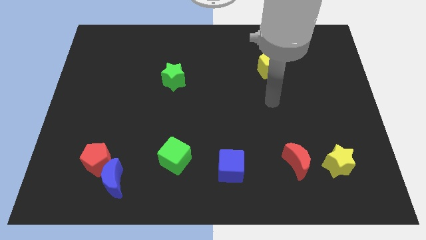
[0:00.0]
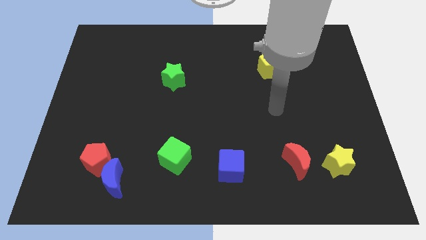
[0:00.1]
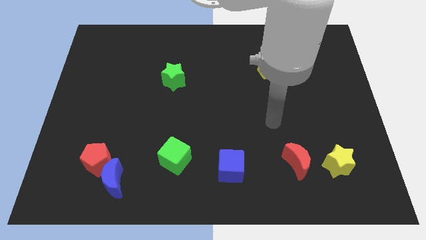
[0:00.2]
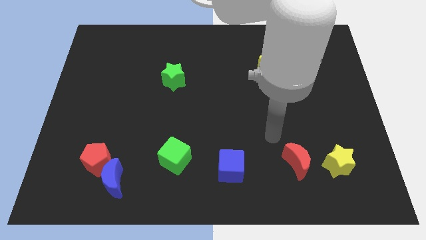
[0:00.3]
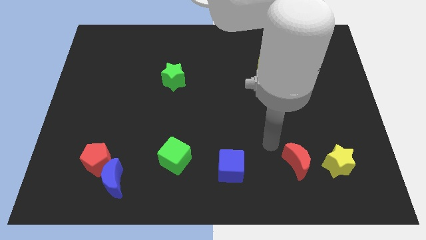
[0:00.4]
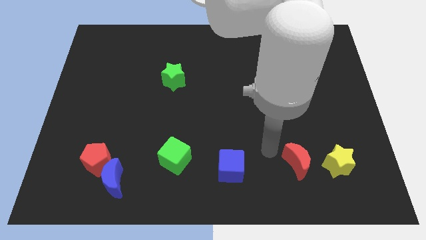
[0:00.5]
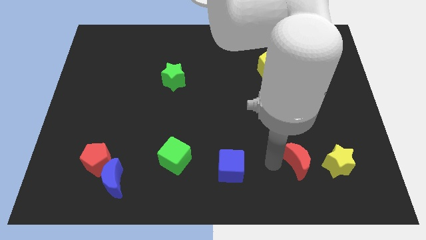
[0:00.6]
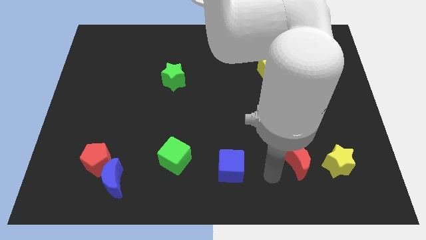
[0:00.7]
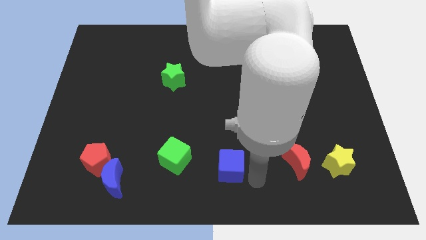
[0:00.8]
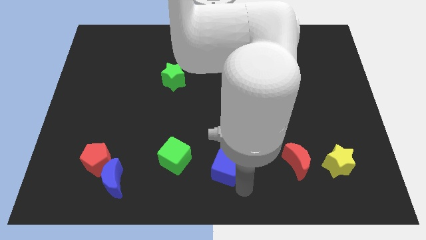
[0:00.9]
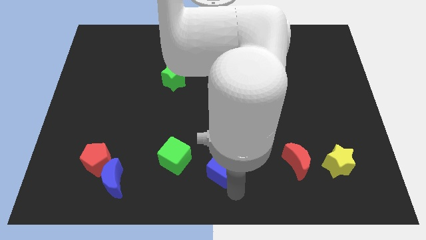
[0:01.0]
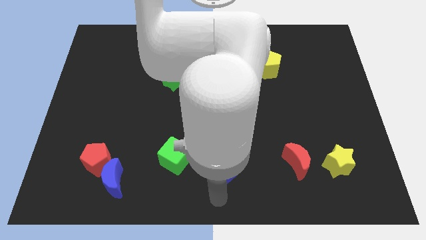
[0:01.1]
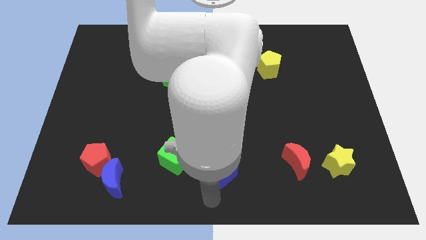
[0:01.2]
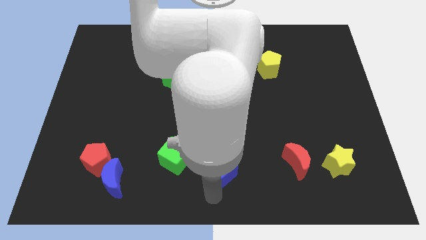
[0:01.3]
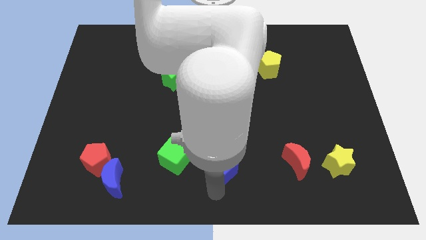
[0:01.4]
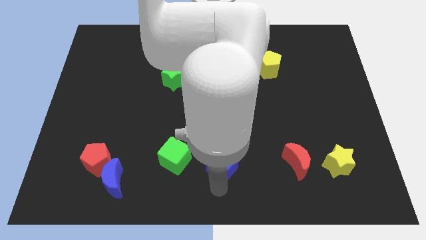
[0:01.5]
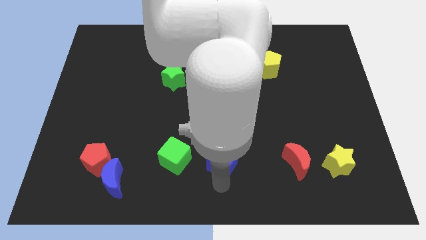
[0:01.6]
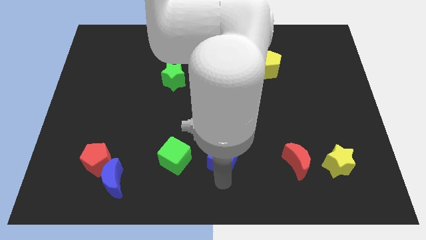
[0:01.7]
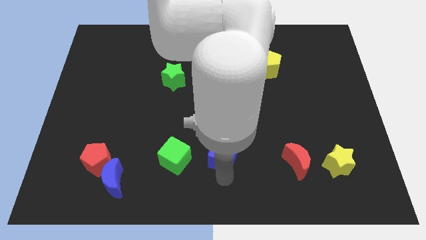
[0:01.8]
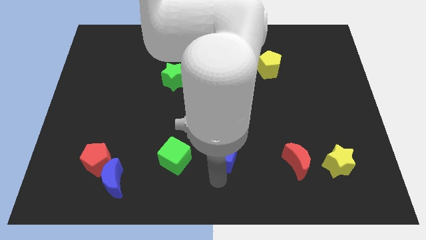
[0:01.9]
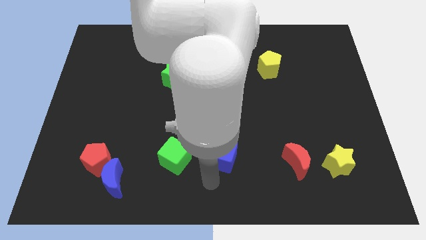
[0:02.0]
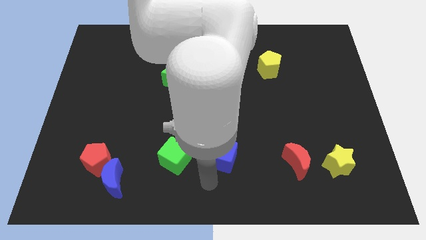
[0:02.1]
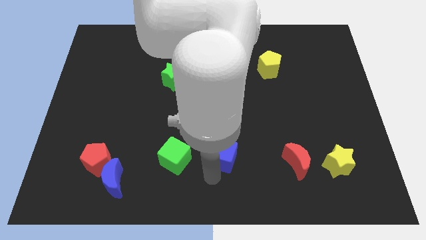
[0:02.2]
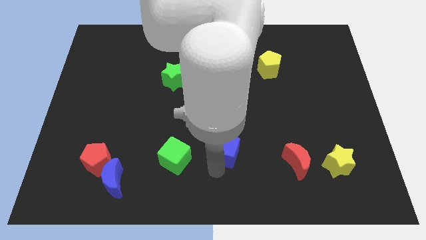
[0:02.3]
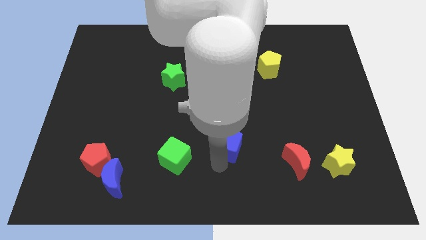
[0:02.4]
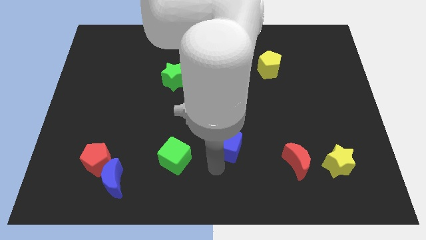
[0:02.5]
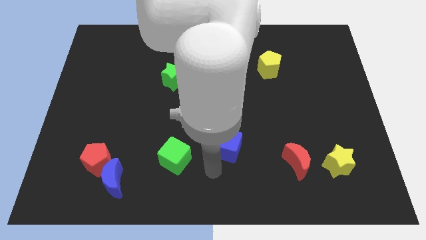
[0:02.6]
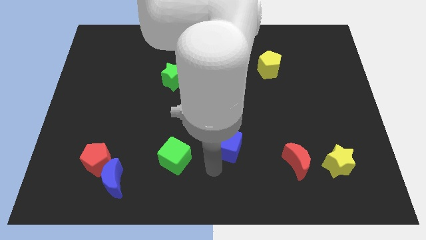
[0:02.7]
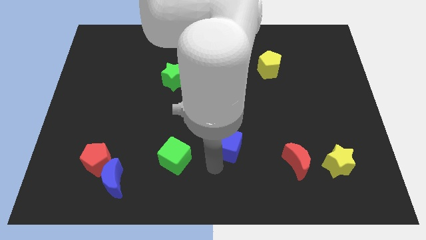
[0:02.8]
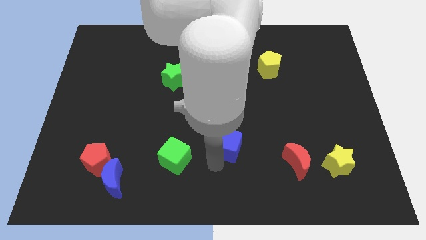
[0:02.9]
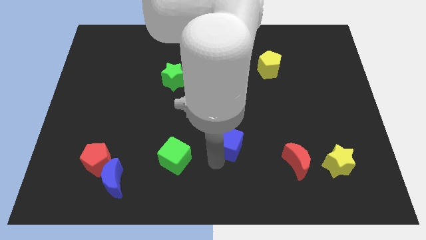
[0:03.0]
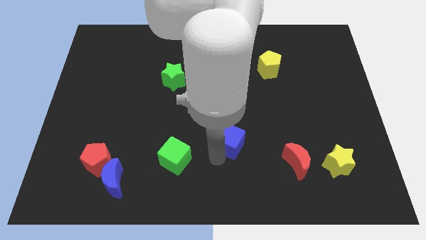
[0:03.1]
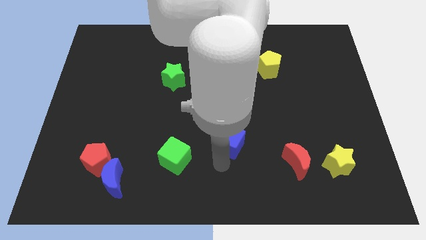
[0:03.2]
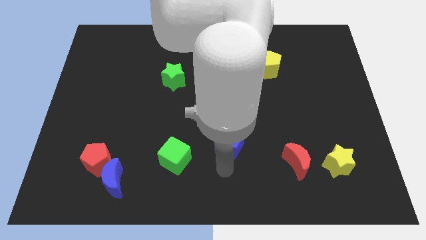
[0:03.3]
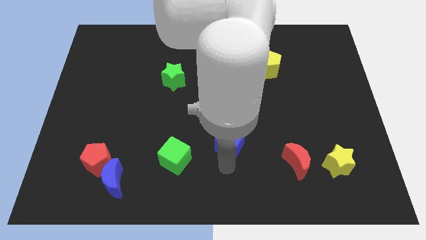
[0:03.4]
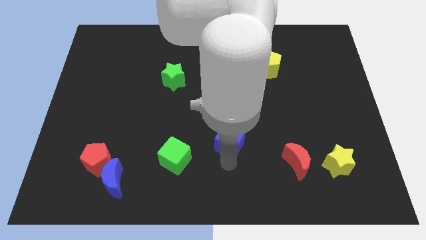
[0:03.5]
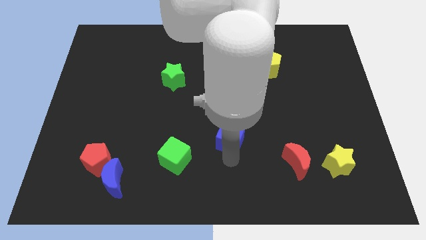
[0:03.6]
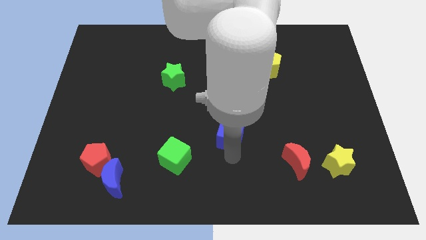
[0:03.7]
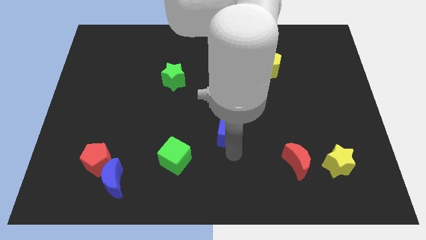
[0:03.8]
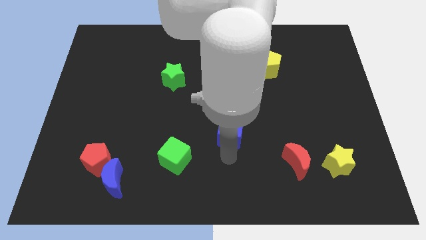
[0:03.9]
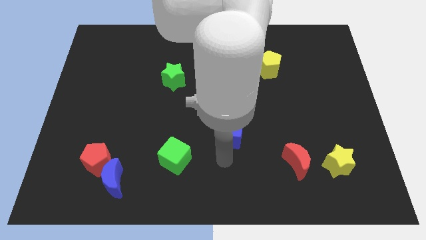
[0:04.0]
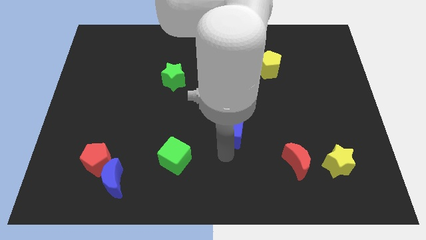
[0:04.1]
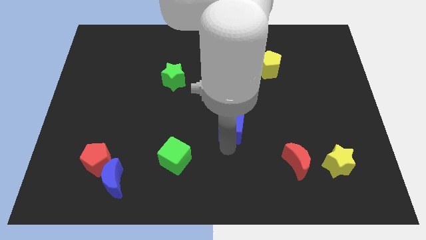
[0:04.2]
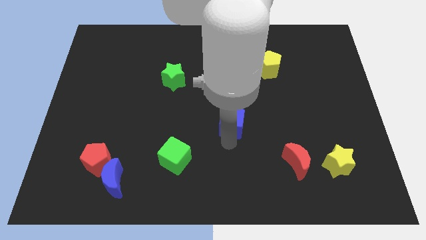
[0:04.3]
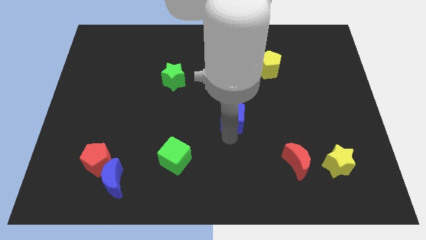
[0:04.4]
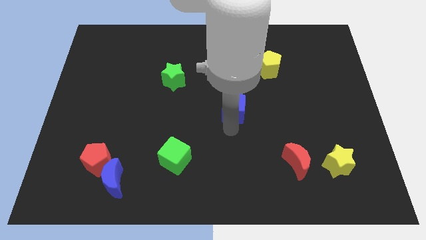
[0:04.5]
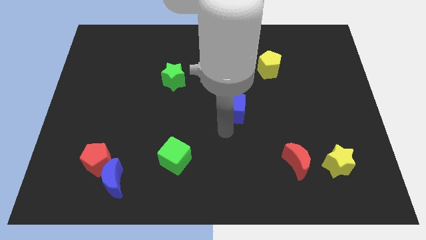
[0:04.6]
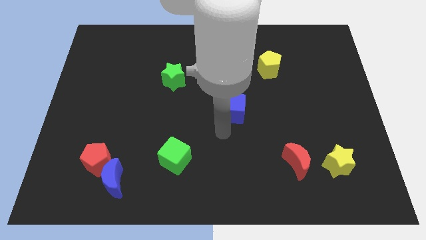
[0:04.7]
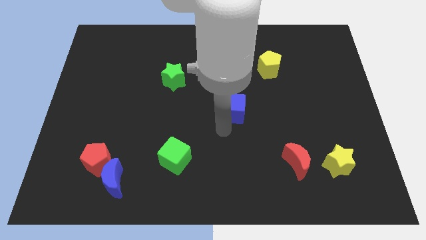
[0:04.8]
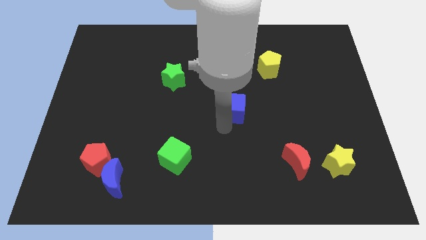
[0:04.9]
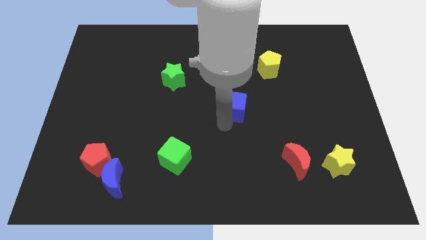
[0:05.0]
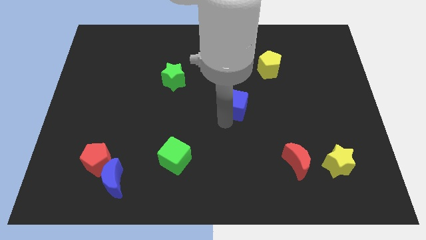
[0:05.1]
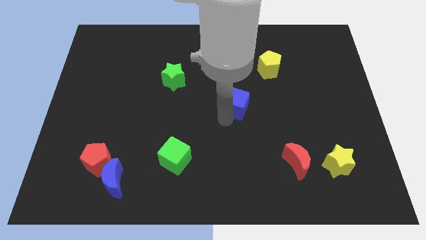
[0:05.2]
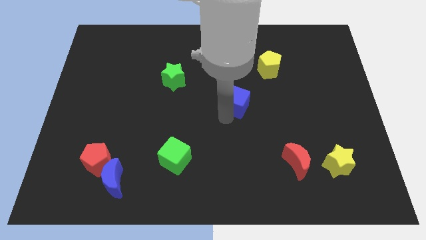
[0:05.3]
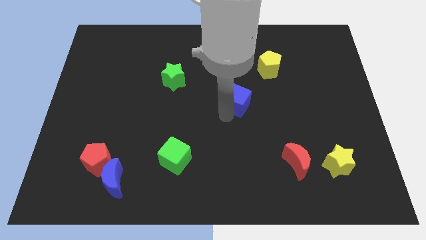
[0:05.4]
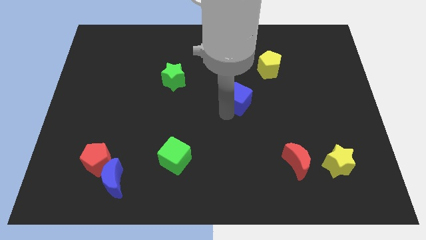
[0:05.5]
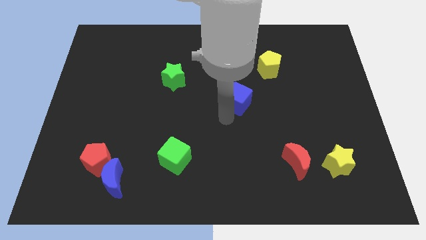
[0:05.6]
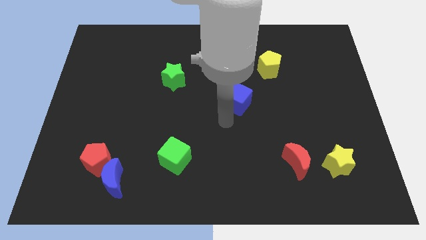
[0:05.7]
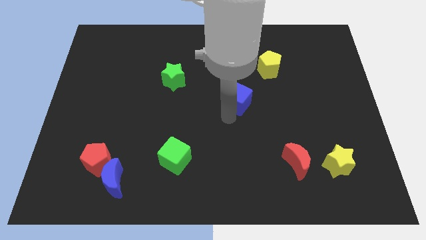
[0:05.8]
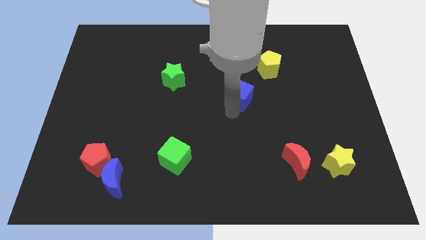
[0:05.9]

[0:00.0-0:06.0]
put the blue cube to the bottom left of the yellow pentagon

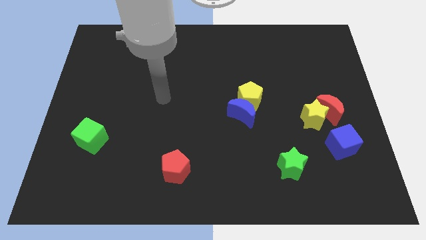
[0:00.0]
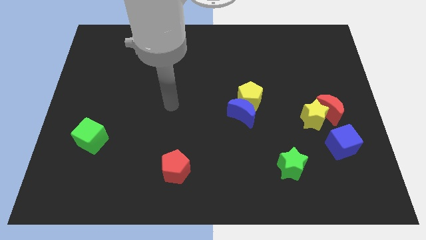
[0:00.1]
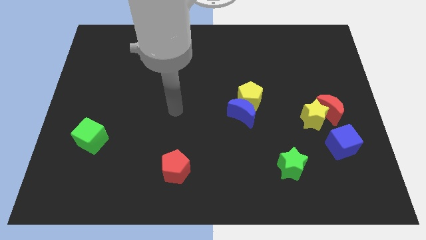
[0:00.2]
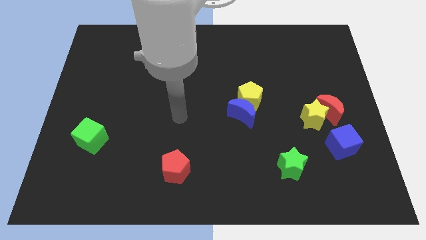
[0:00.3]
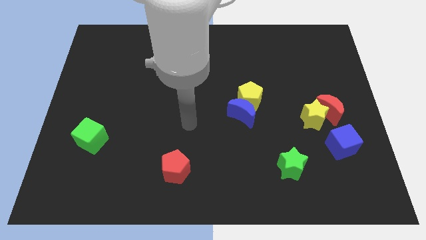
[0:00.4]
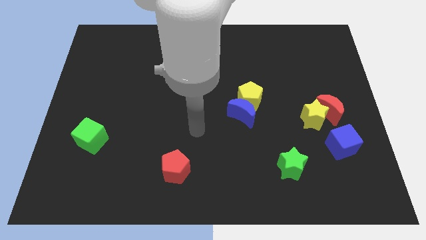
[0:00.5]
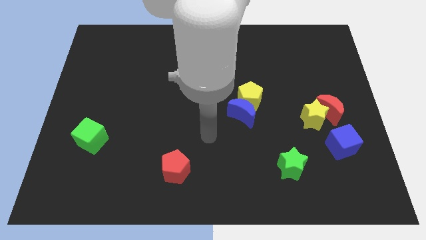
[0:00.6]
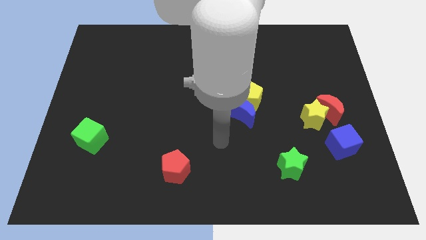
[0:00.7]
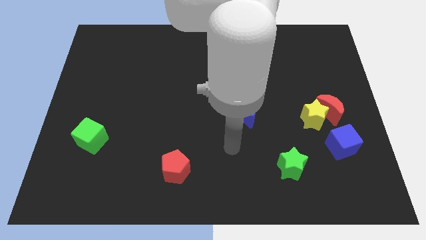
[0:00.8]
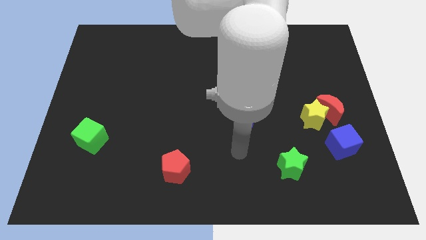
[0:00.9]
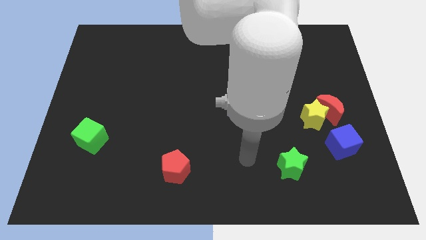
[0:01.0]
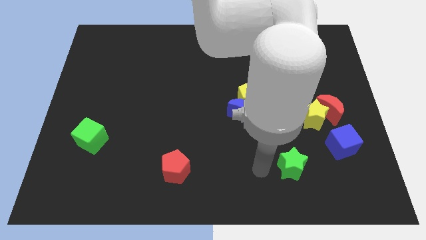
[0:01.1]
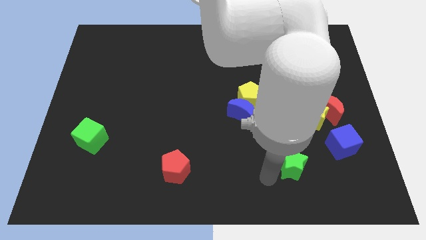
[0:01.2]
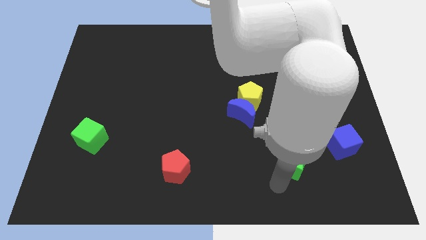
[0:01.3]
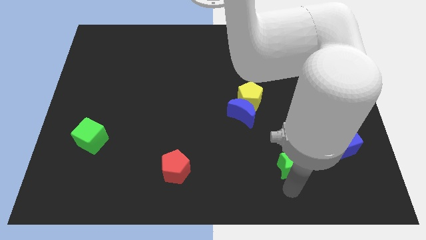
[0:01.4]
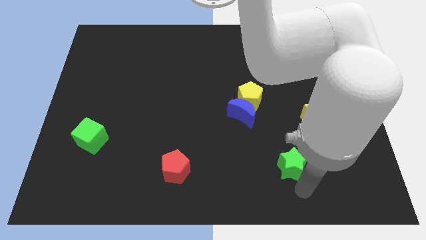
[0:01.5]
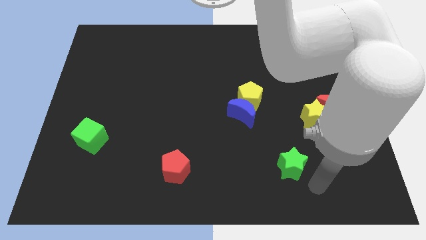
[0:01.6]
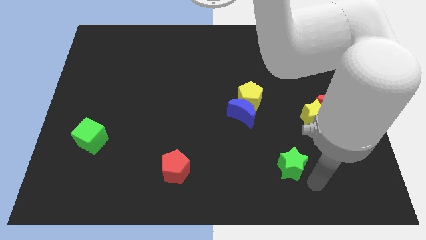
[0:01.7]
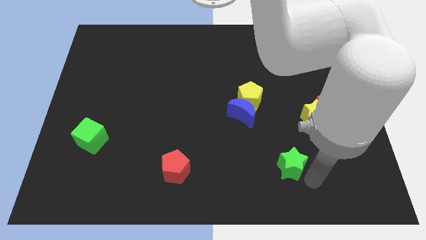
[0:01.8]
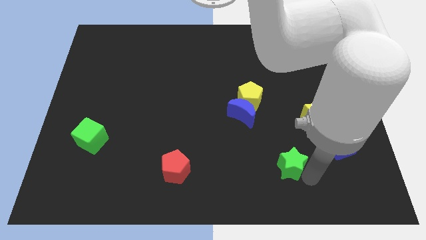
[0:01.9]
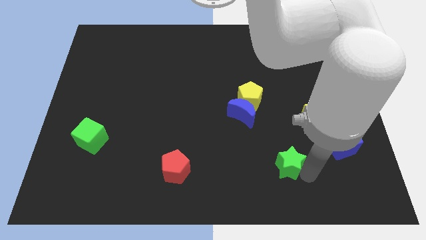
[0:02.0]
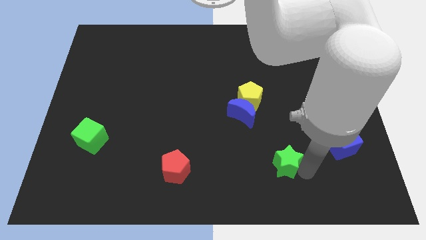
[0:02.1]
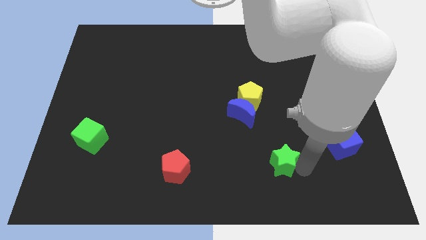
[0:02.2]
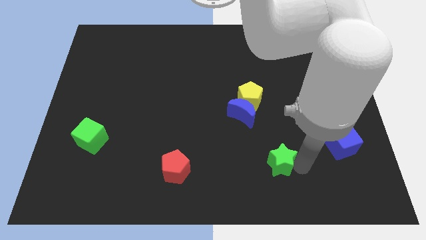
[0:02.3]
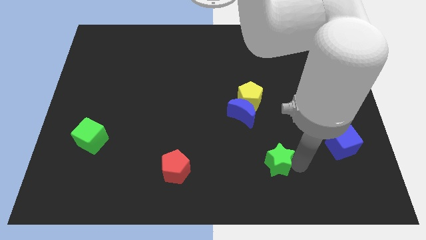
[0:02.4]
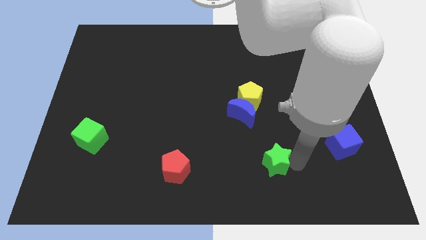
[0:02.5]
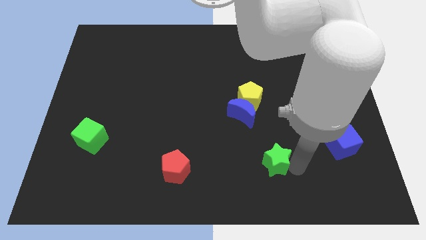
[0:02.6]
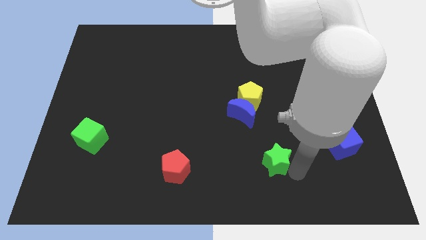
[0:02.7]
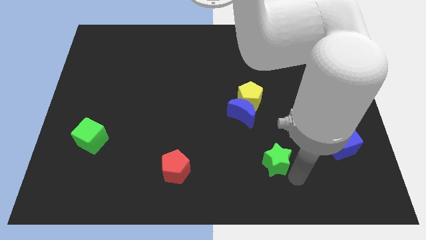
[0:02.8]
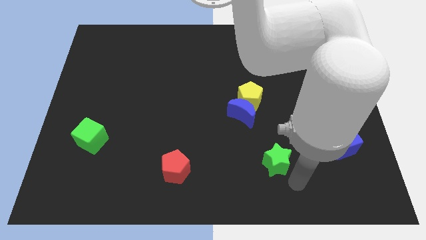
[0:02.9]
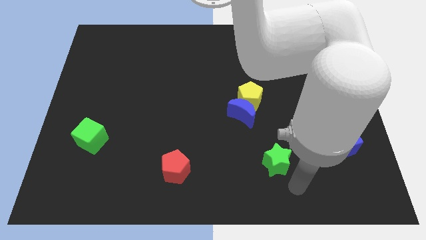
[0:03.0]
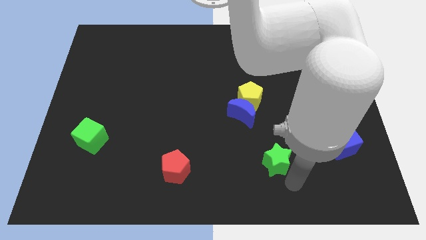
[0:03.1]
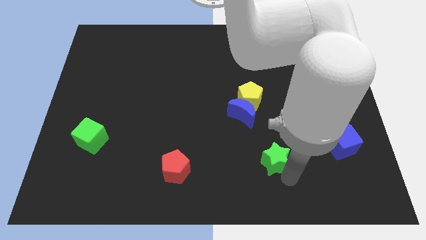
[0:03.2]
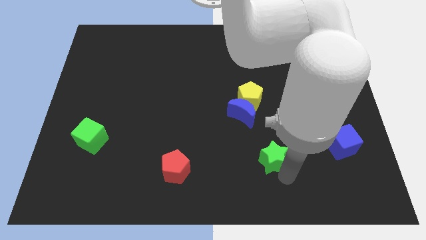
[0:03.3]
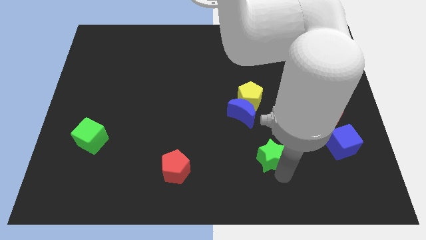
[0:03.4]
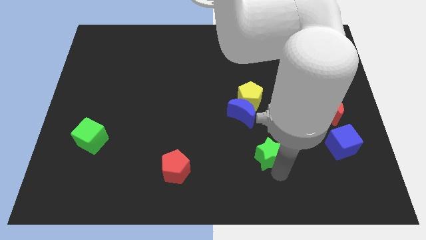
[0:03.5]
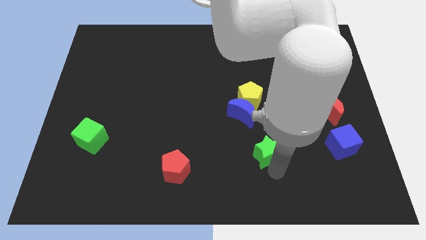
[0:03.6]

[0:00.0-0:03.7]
put the green star to the bottom of the yellow pentagon
